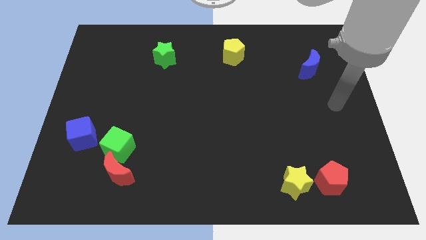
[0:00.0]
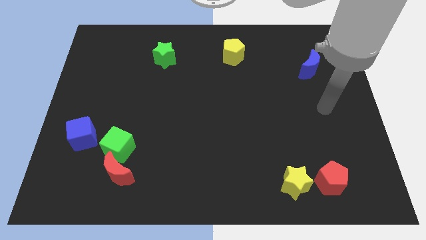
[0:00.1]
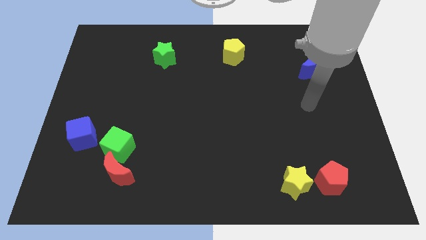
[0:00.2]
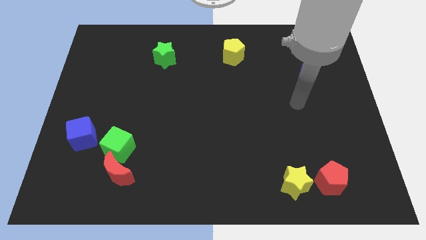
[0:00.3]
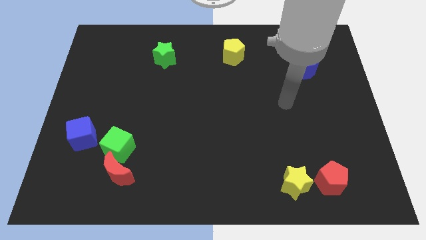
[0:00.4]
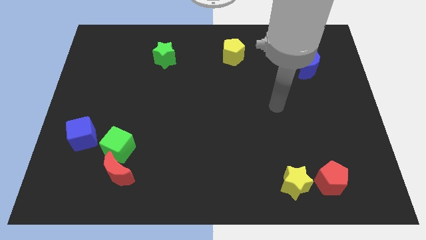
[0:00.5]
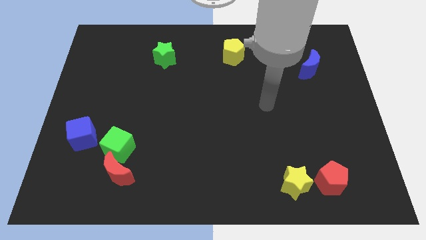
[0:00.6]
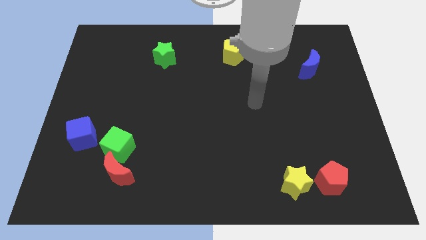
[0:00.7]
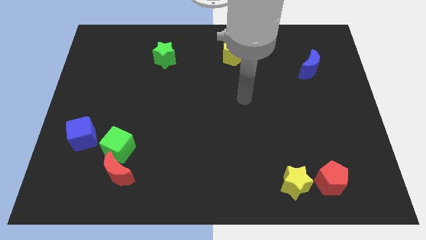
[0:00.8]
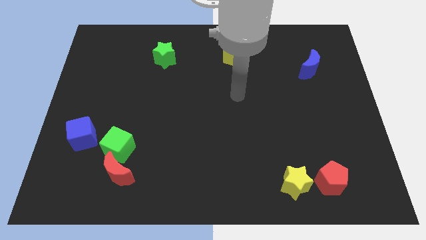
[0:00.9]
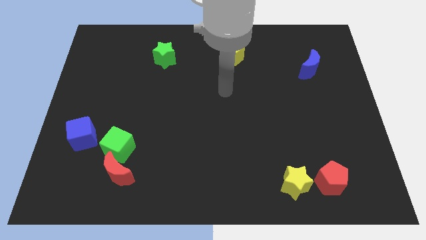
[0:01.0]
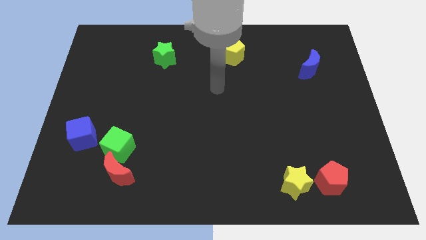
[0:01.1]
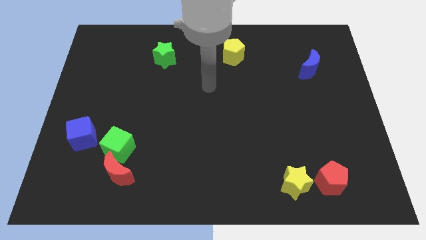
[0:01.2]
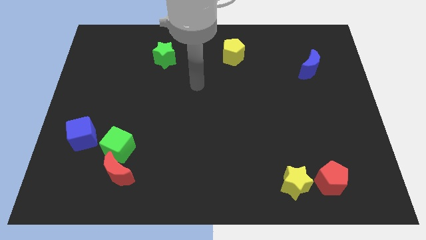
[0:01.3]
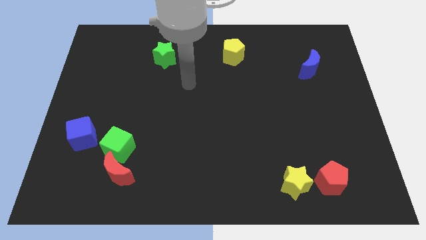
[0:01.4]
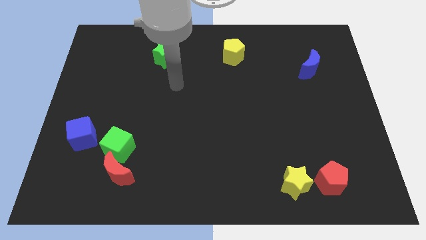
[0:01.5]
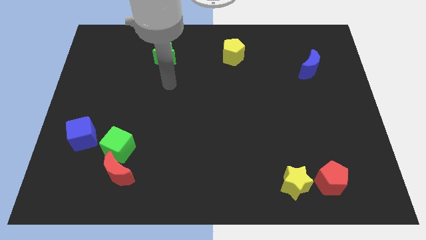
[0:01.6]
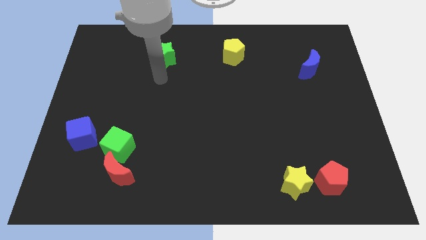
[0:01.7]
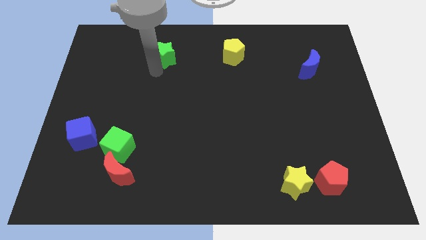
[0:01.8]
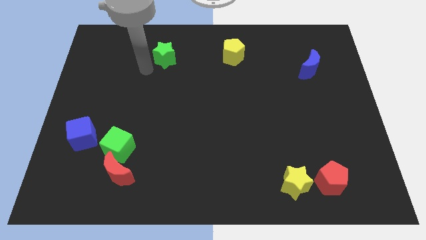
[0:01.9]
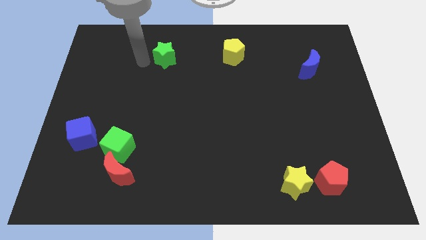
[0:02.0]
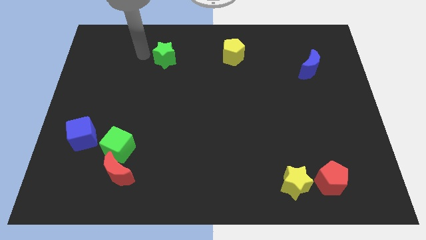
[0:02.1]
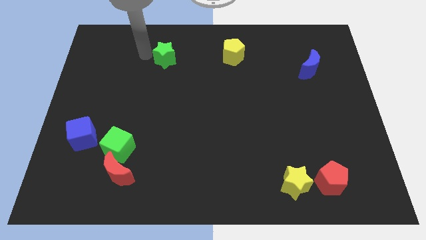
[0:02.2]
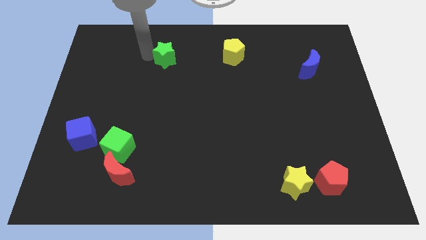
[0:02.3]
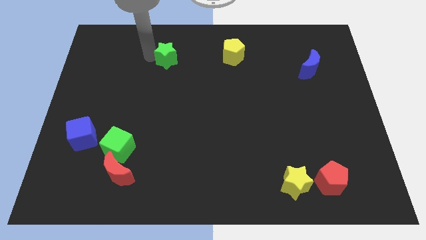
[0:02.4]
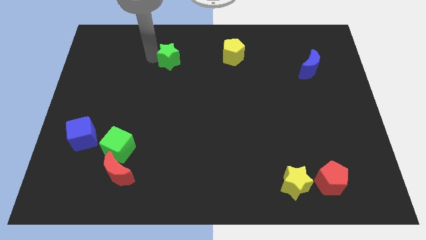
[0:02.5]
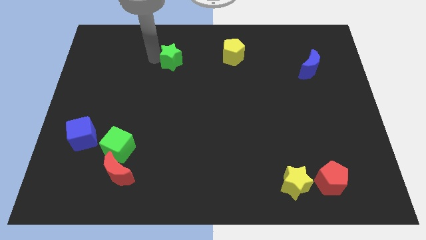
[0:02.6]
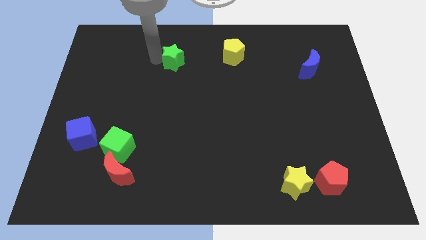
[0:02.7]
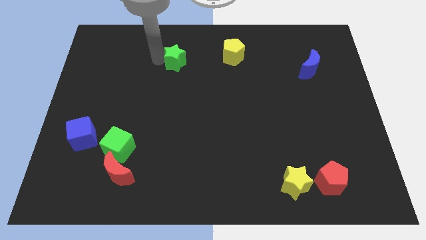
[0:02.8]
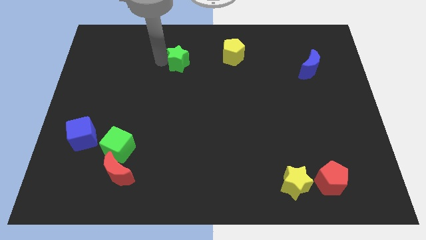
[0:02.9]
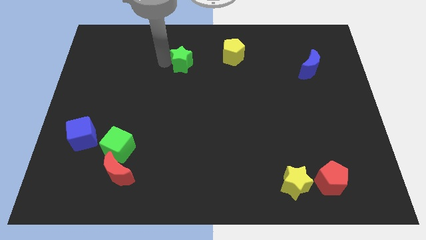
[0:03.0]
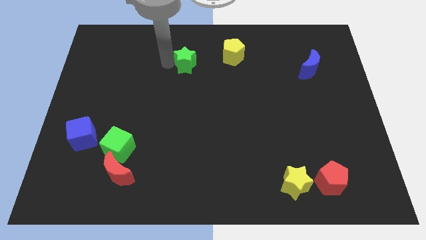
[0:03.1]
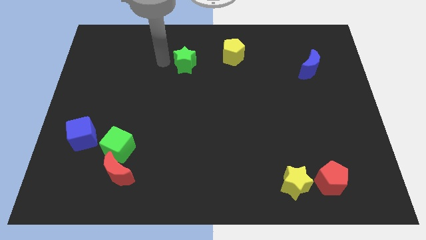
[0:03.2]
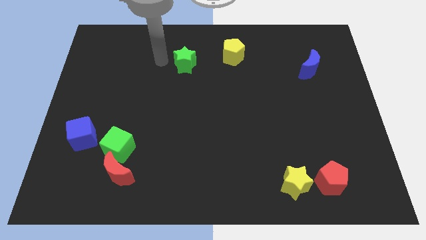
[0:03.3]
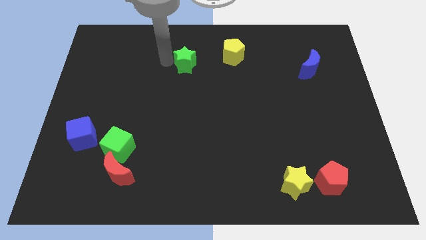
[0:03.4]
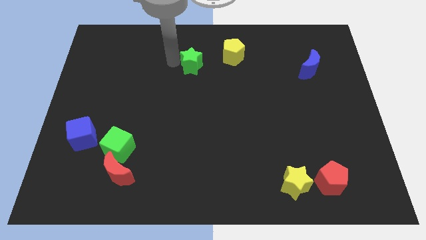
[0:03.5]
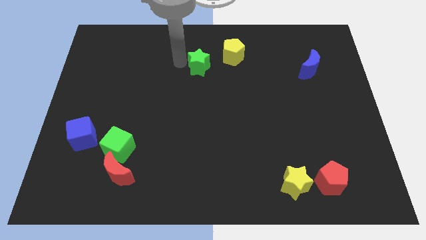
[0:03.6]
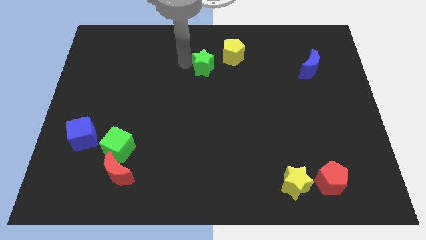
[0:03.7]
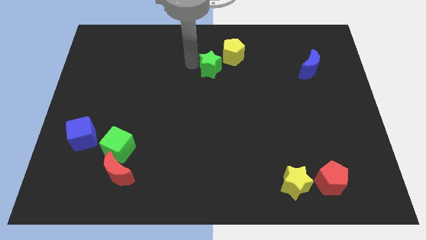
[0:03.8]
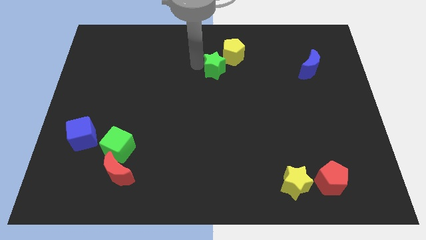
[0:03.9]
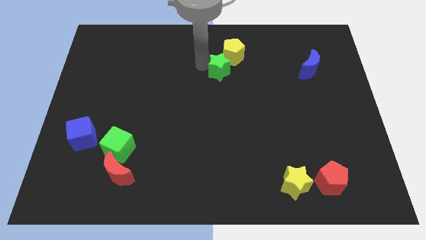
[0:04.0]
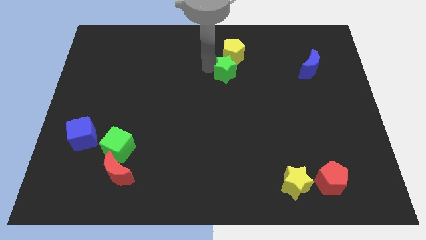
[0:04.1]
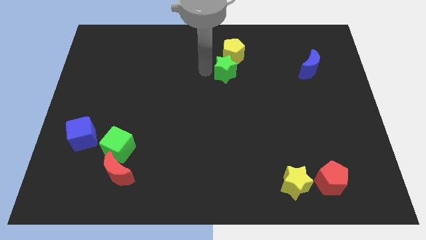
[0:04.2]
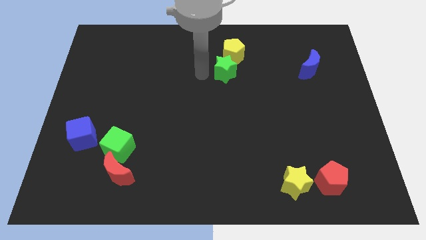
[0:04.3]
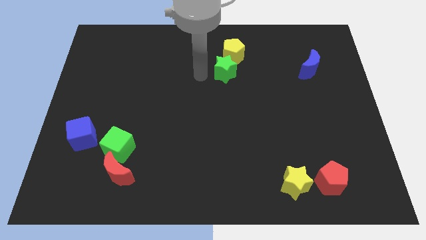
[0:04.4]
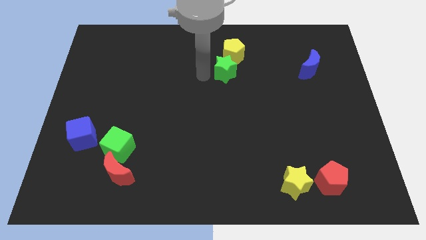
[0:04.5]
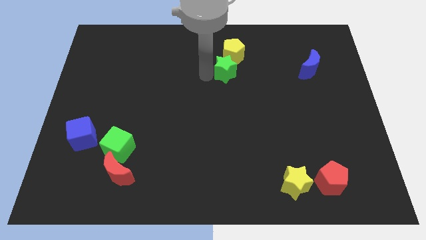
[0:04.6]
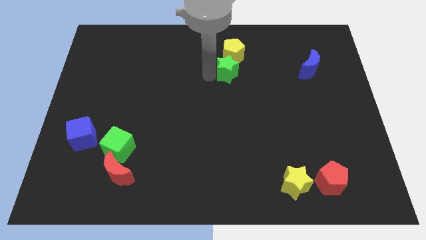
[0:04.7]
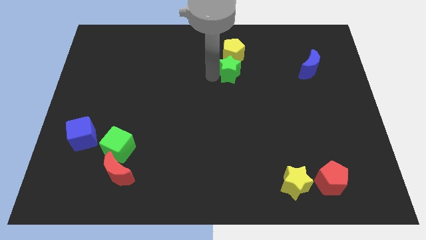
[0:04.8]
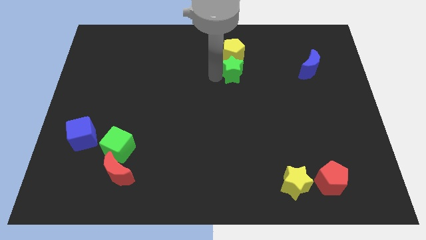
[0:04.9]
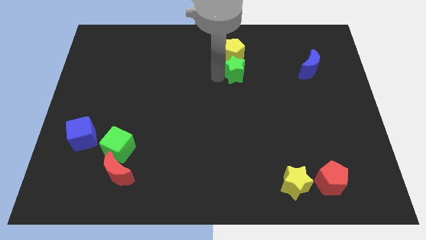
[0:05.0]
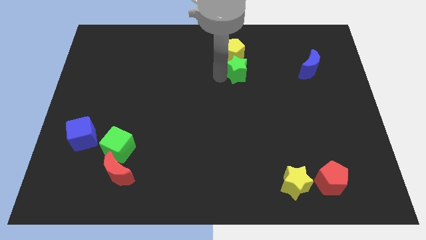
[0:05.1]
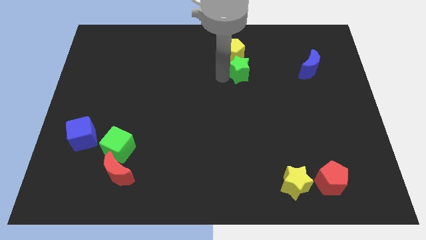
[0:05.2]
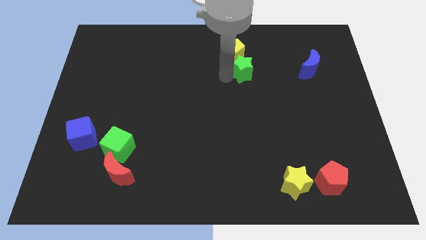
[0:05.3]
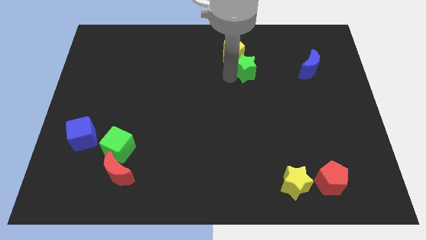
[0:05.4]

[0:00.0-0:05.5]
push the green star to the right

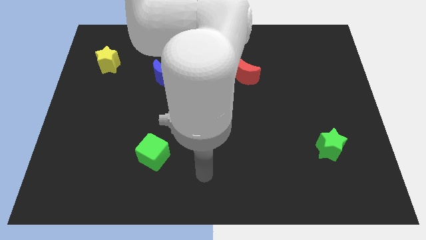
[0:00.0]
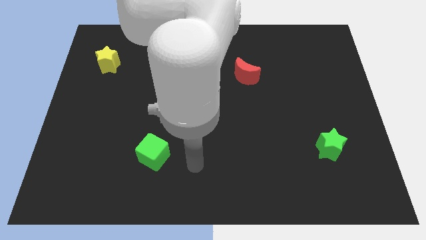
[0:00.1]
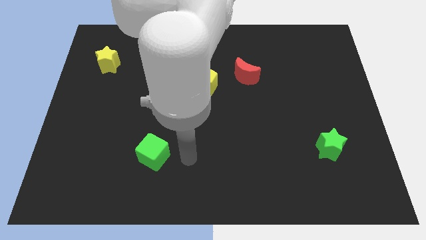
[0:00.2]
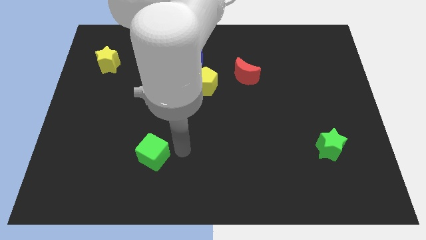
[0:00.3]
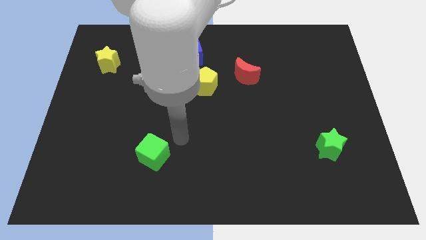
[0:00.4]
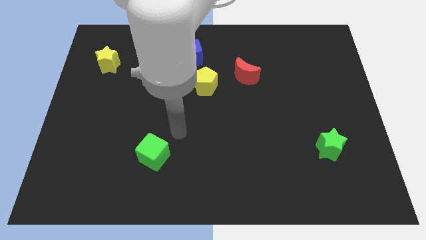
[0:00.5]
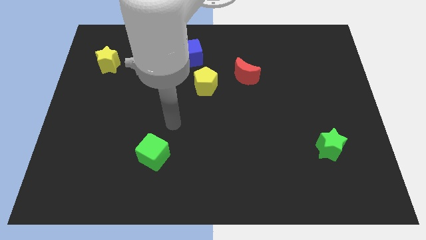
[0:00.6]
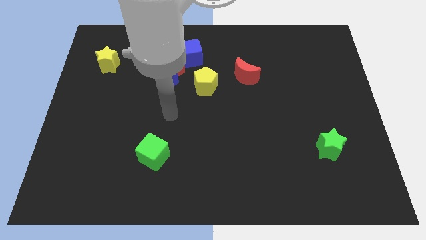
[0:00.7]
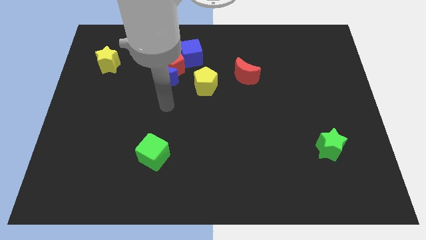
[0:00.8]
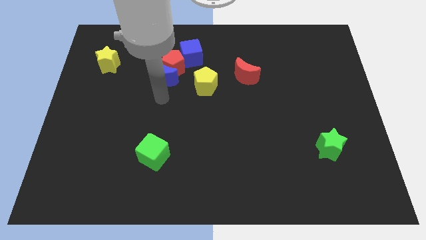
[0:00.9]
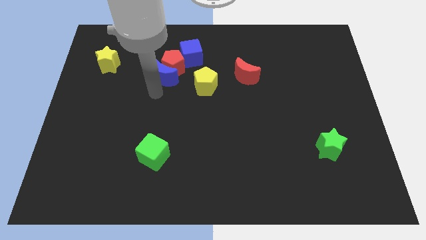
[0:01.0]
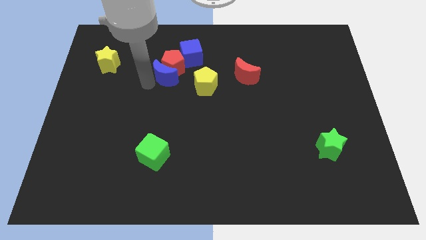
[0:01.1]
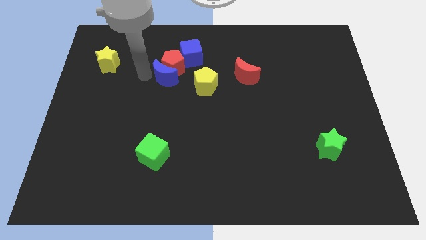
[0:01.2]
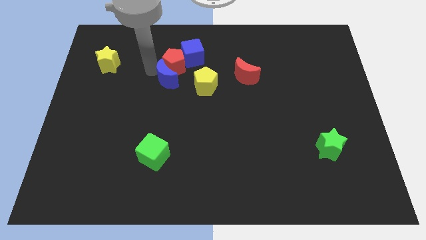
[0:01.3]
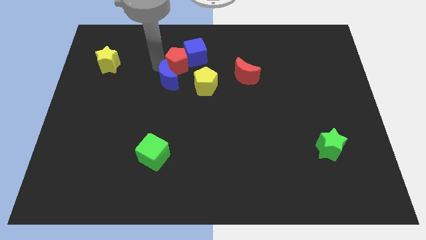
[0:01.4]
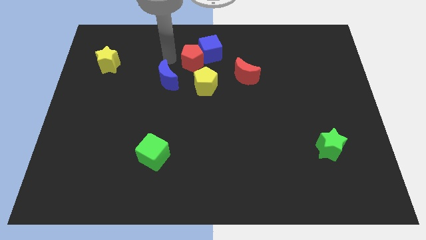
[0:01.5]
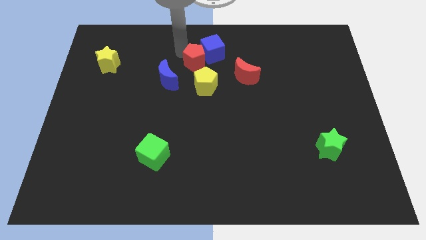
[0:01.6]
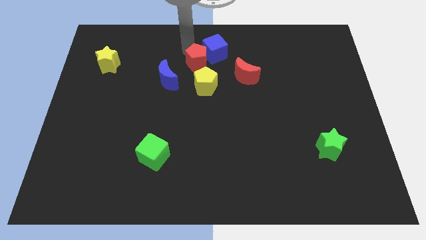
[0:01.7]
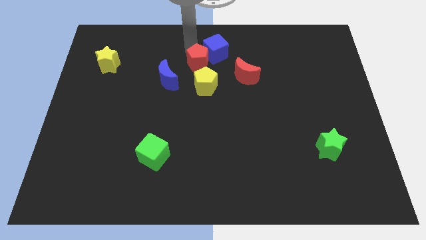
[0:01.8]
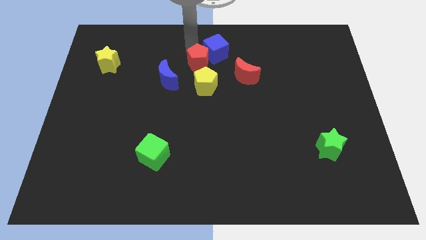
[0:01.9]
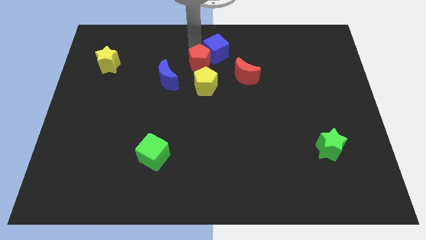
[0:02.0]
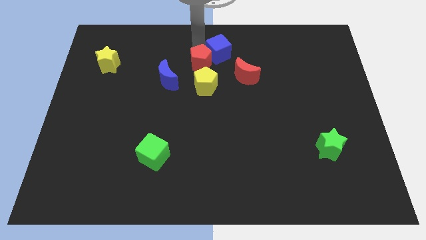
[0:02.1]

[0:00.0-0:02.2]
move the blue cube right a little

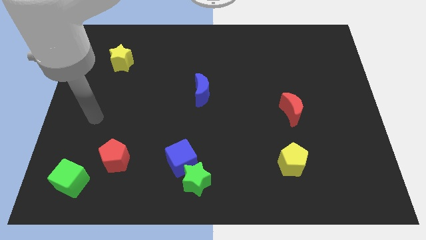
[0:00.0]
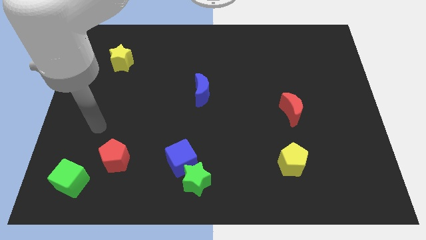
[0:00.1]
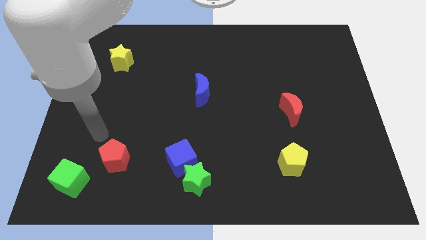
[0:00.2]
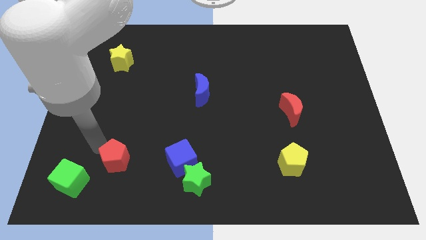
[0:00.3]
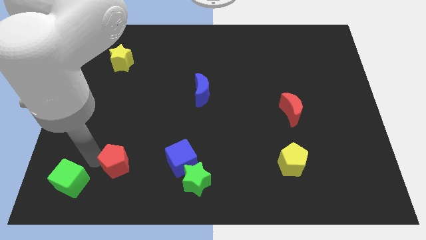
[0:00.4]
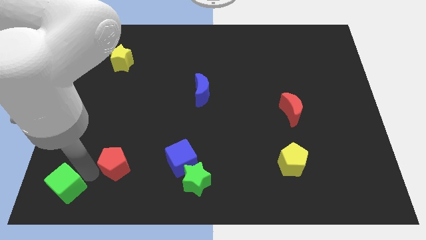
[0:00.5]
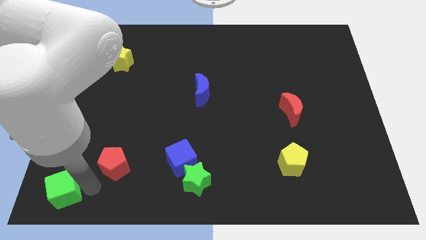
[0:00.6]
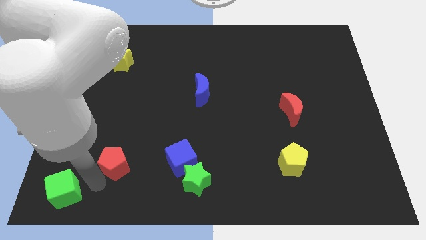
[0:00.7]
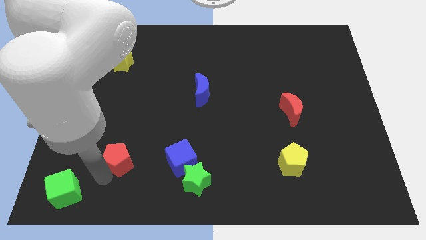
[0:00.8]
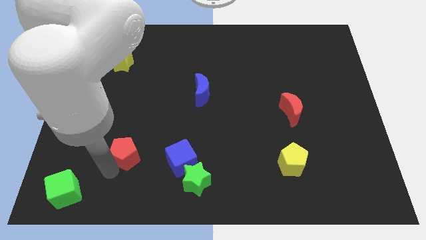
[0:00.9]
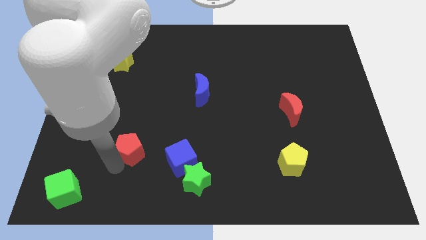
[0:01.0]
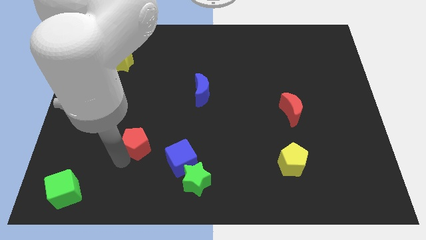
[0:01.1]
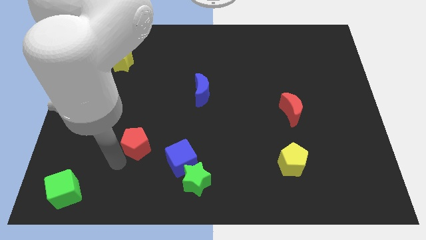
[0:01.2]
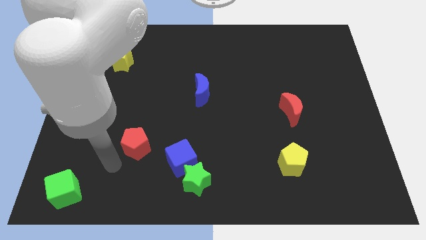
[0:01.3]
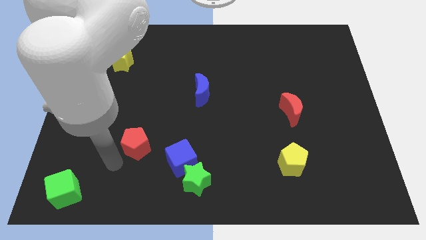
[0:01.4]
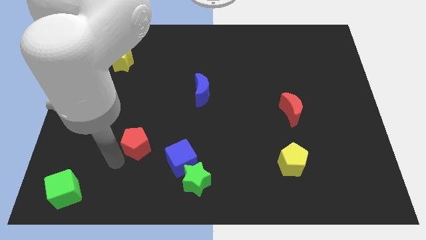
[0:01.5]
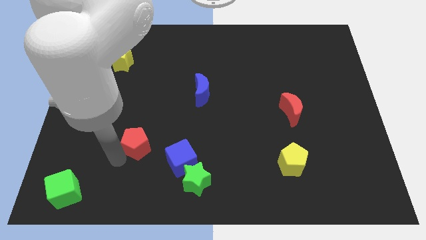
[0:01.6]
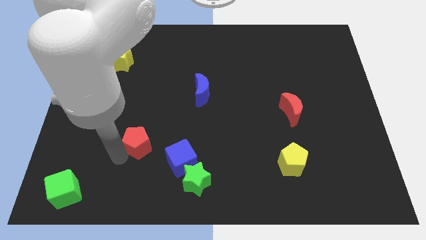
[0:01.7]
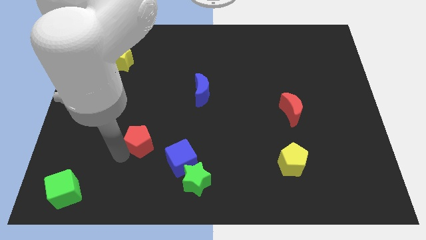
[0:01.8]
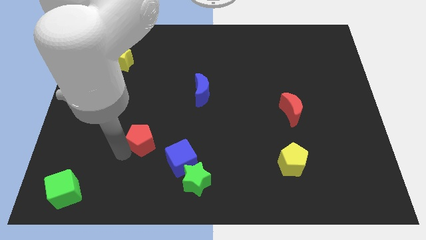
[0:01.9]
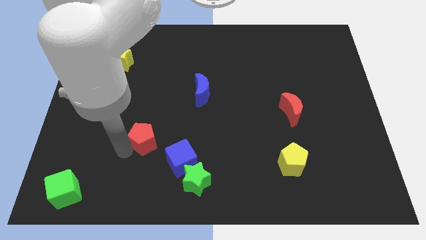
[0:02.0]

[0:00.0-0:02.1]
move the red pentagon upwards and to the right a bit
